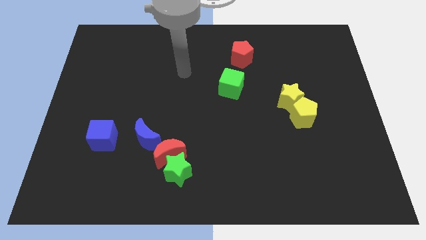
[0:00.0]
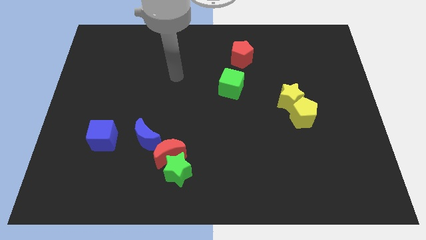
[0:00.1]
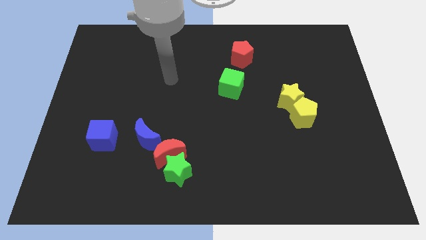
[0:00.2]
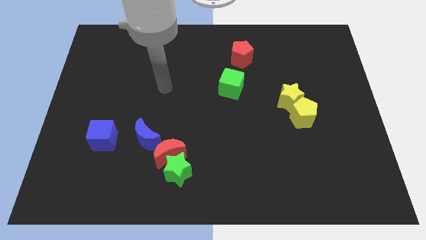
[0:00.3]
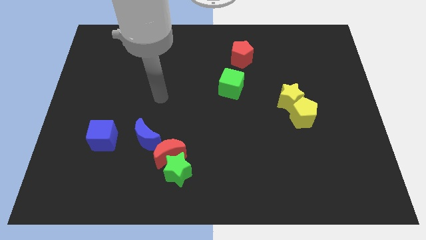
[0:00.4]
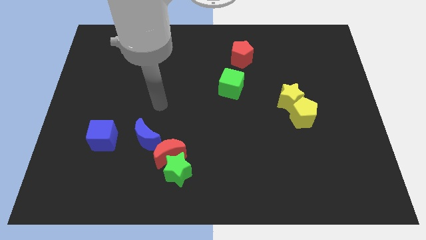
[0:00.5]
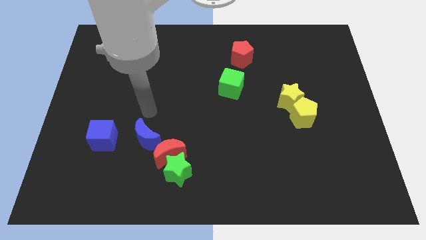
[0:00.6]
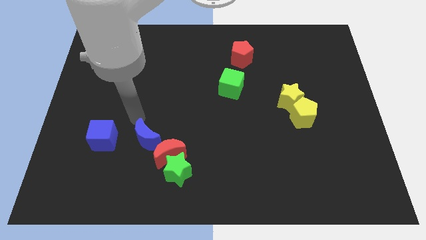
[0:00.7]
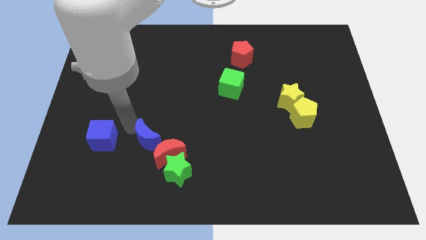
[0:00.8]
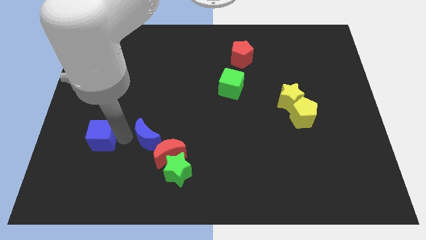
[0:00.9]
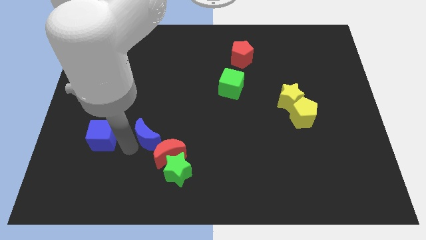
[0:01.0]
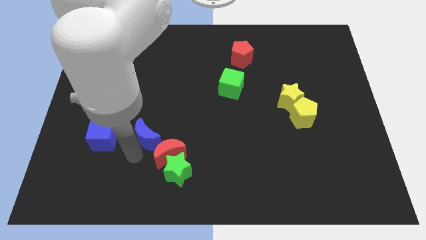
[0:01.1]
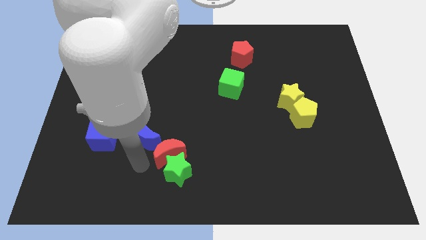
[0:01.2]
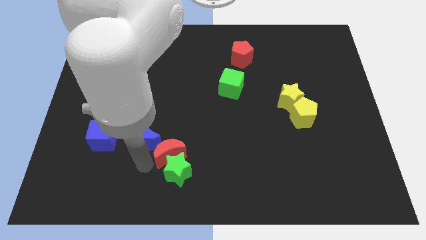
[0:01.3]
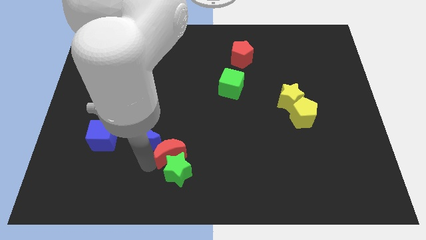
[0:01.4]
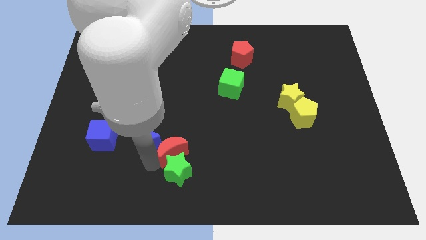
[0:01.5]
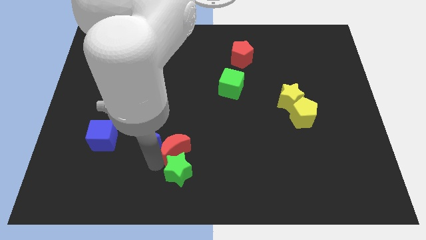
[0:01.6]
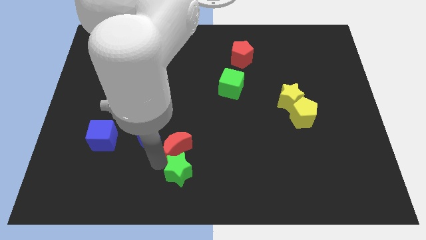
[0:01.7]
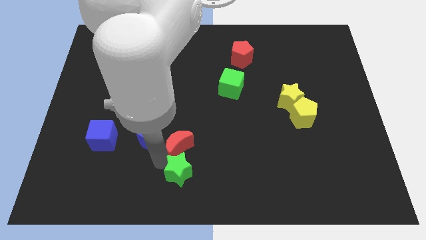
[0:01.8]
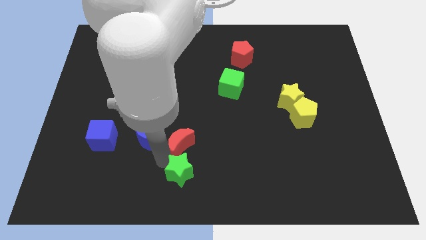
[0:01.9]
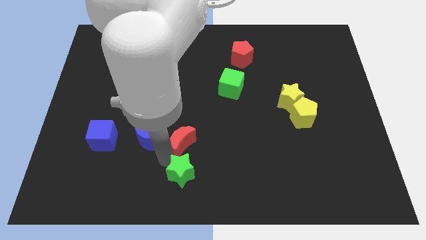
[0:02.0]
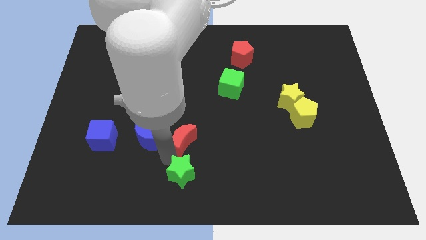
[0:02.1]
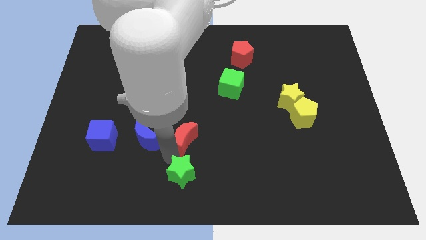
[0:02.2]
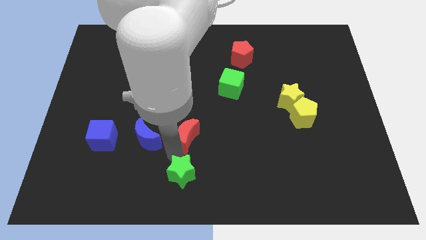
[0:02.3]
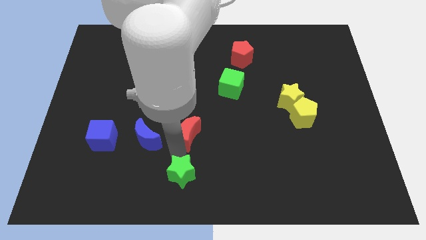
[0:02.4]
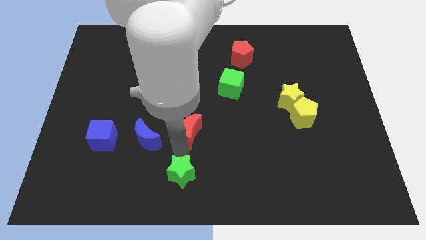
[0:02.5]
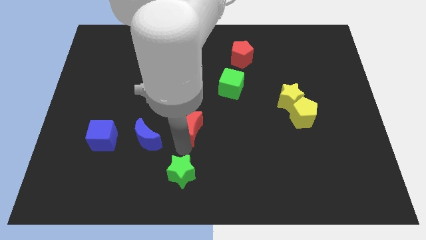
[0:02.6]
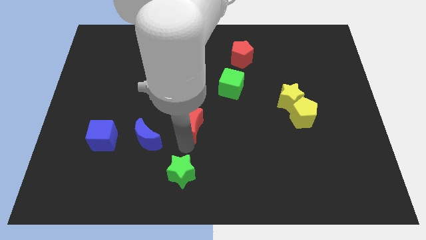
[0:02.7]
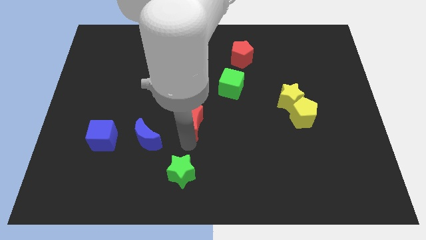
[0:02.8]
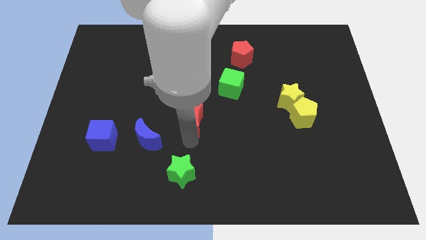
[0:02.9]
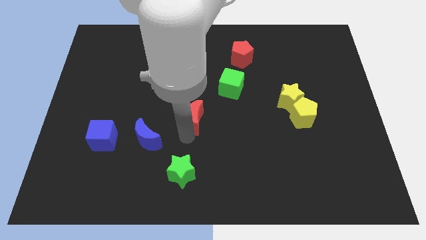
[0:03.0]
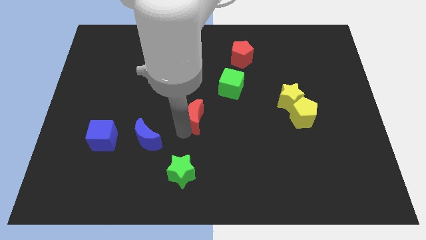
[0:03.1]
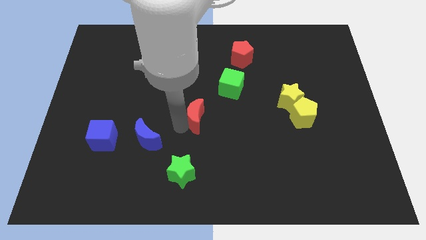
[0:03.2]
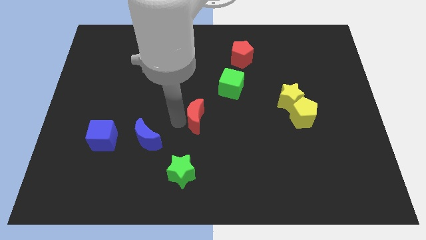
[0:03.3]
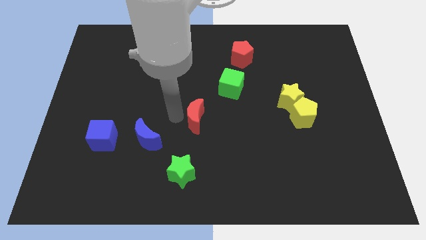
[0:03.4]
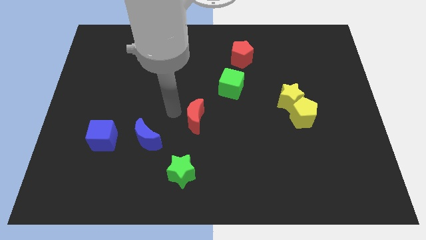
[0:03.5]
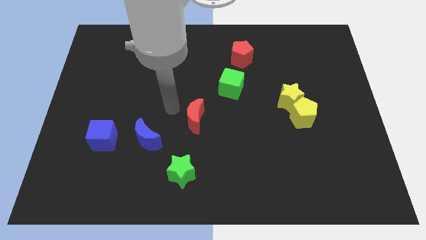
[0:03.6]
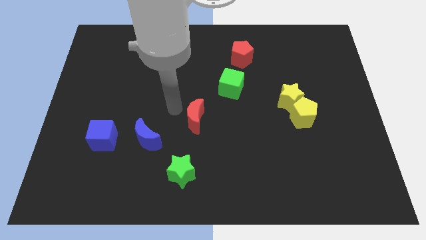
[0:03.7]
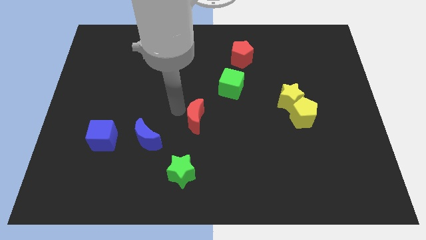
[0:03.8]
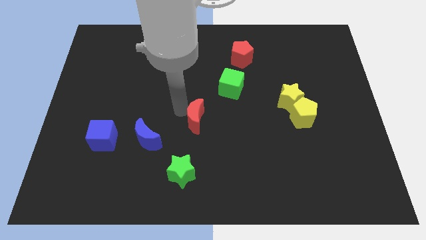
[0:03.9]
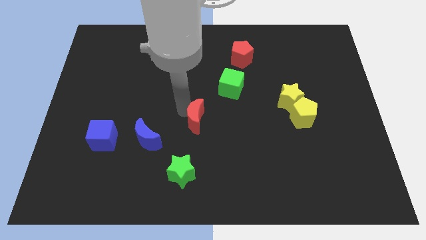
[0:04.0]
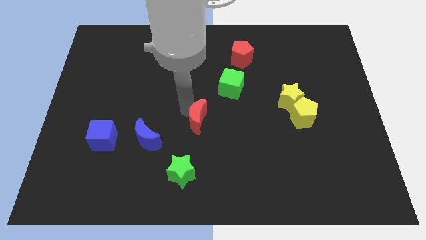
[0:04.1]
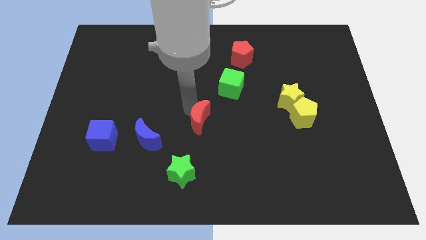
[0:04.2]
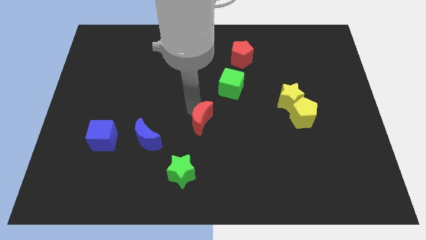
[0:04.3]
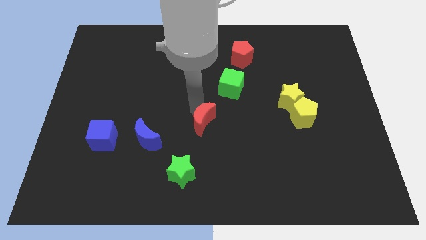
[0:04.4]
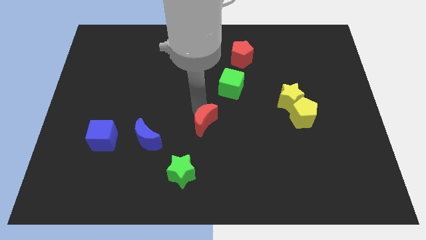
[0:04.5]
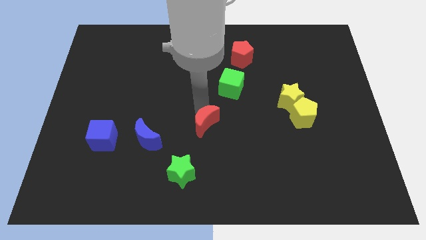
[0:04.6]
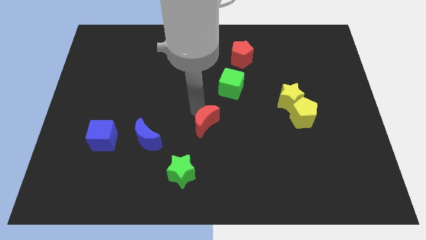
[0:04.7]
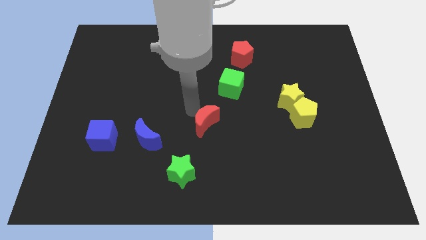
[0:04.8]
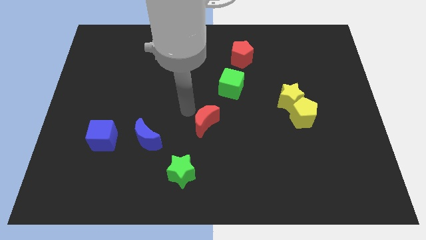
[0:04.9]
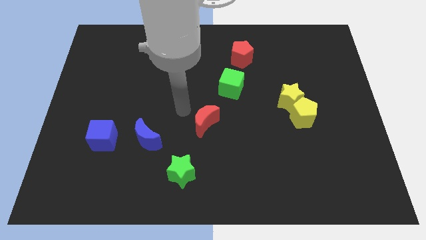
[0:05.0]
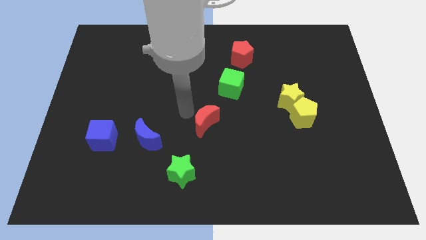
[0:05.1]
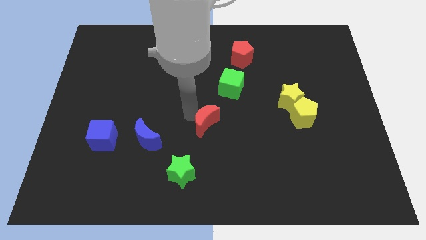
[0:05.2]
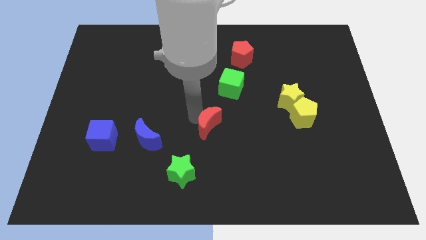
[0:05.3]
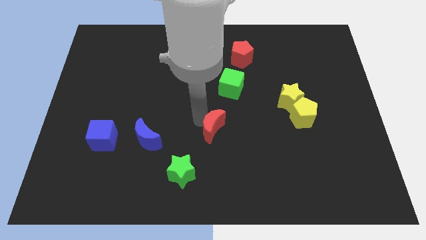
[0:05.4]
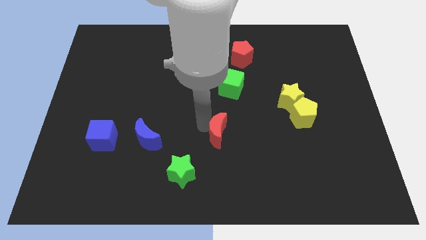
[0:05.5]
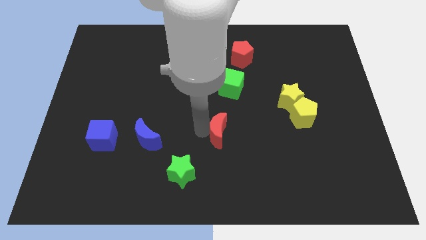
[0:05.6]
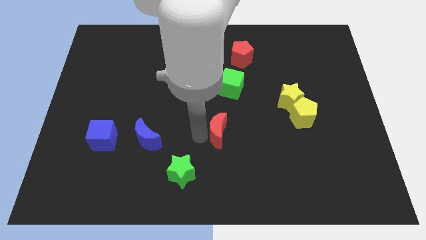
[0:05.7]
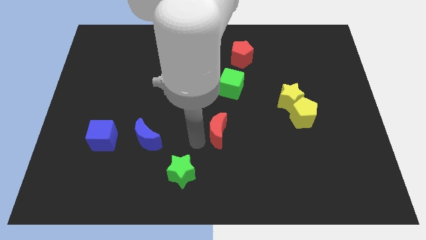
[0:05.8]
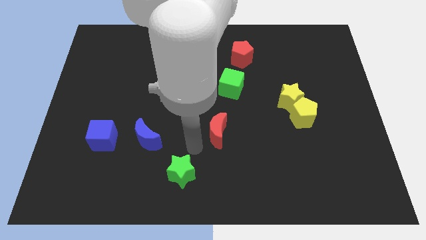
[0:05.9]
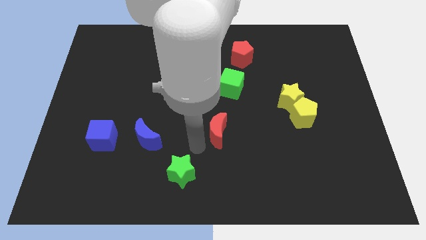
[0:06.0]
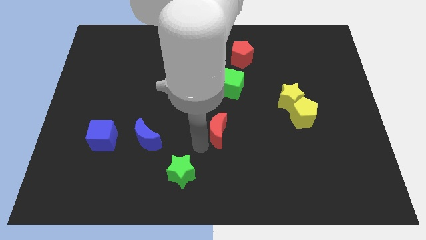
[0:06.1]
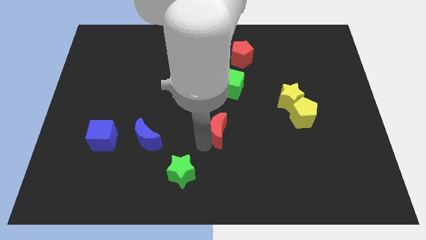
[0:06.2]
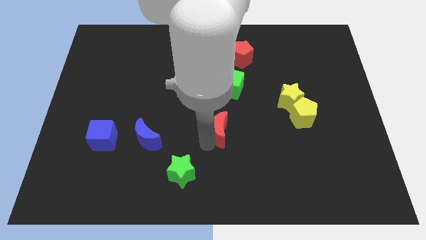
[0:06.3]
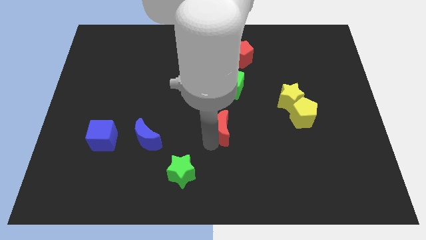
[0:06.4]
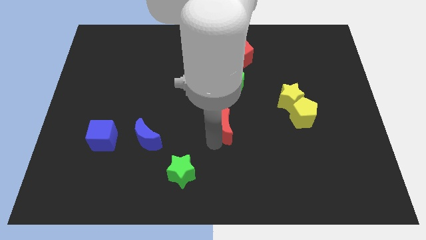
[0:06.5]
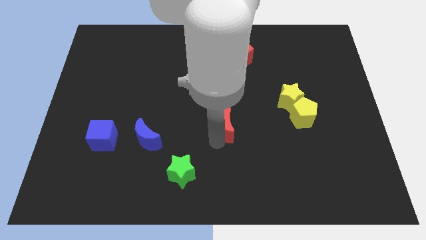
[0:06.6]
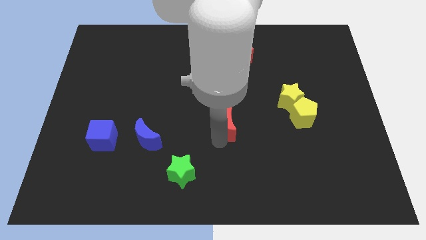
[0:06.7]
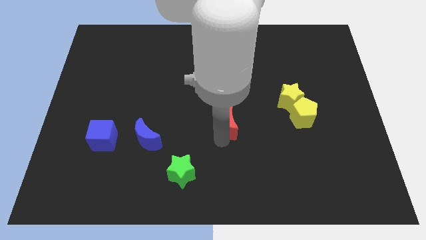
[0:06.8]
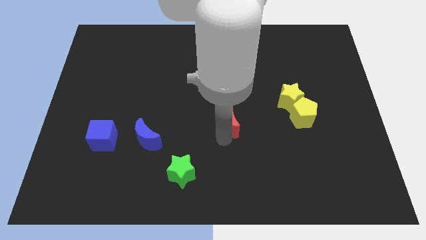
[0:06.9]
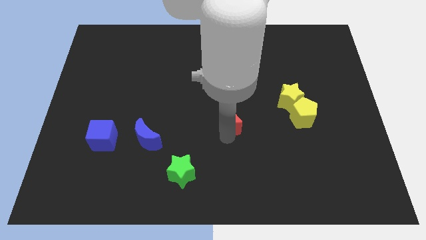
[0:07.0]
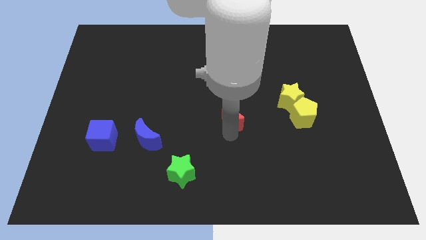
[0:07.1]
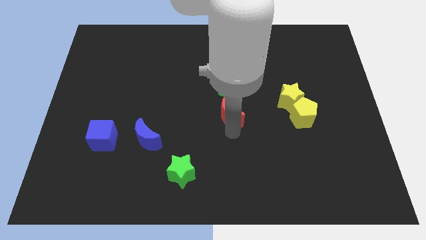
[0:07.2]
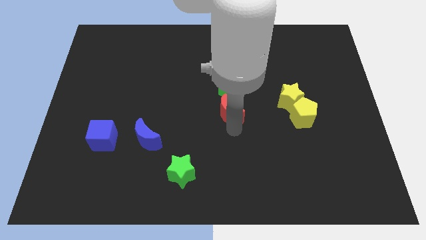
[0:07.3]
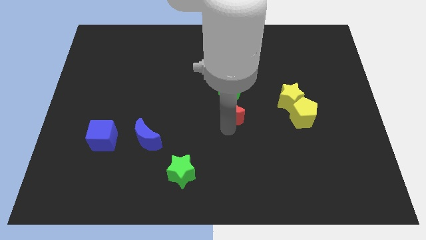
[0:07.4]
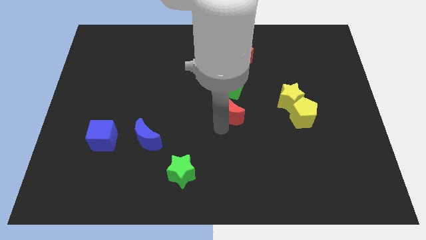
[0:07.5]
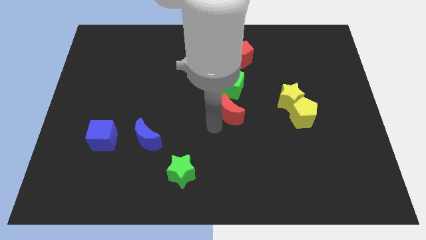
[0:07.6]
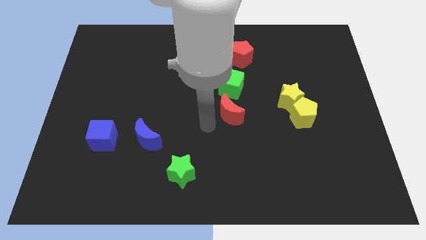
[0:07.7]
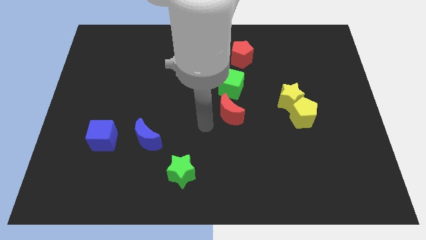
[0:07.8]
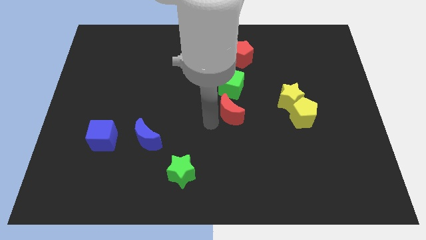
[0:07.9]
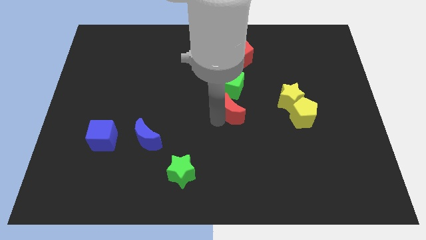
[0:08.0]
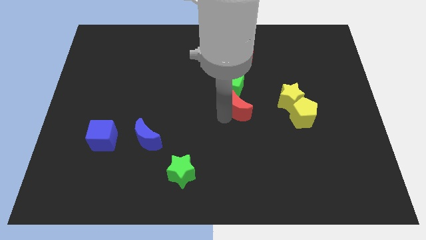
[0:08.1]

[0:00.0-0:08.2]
push the red moon to the bottom right of the green cube
